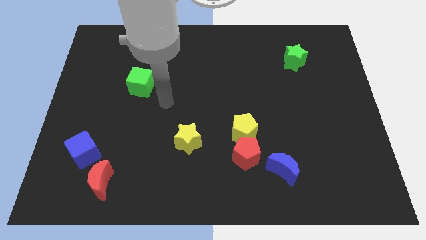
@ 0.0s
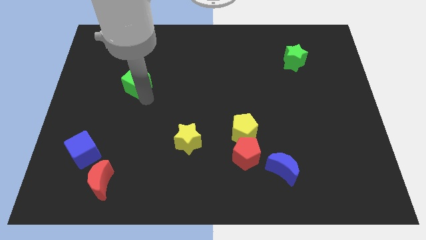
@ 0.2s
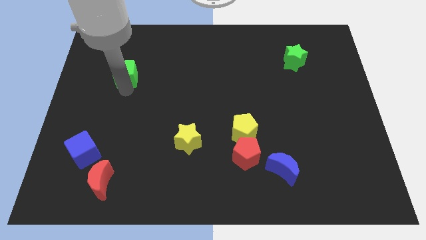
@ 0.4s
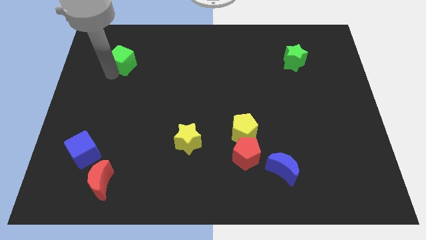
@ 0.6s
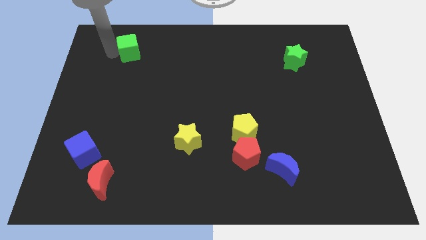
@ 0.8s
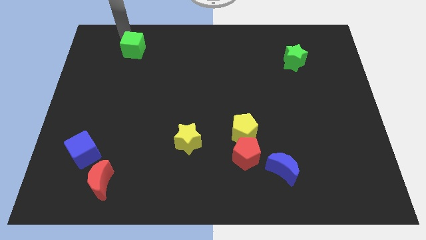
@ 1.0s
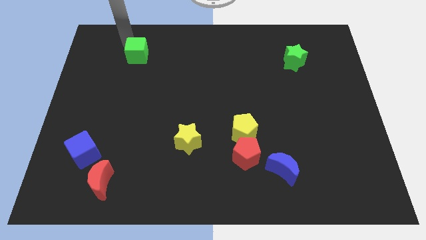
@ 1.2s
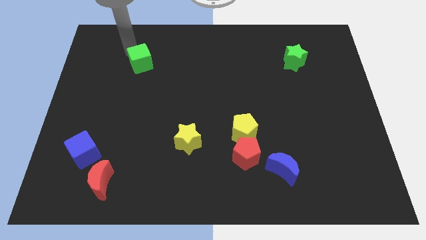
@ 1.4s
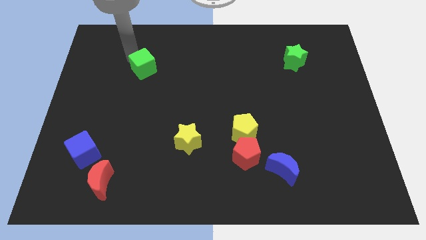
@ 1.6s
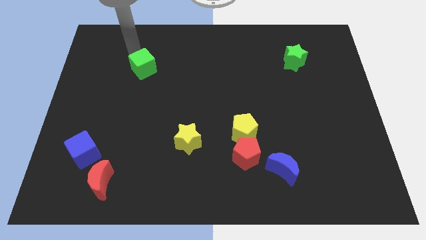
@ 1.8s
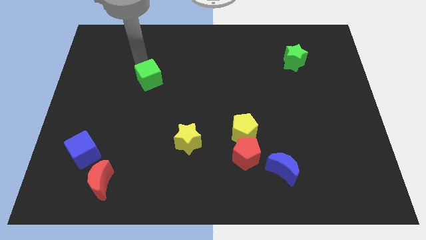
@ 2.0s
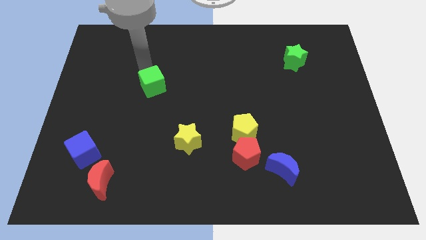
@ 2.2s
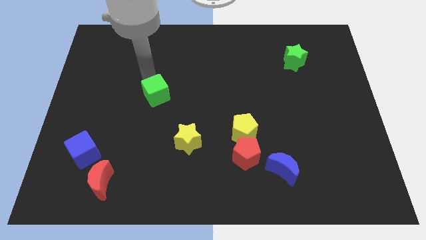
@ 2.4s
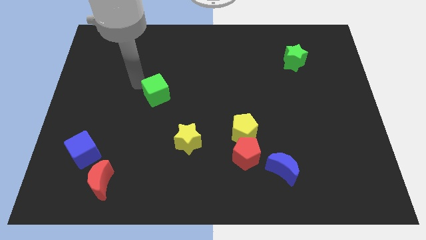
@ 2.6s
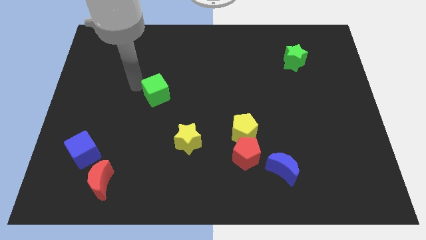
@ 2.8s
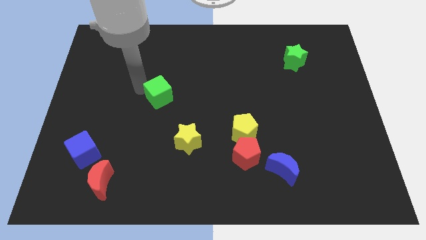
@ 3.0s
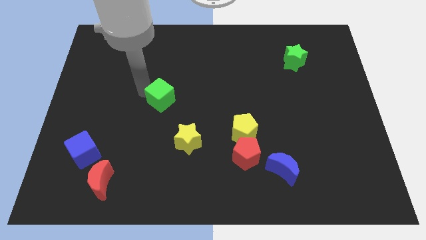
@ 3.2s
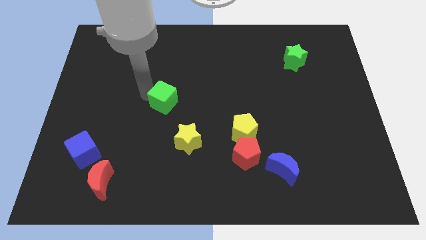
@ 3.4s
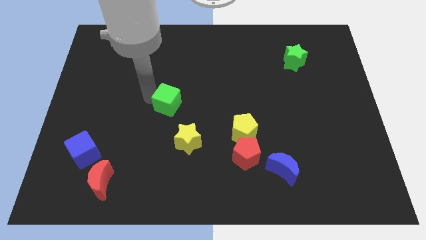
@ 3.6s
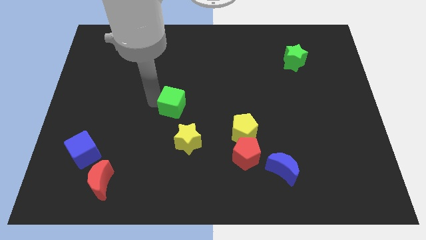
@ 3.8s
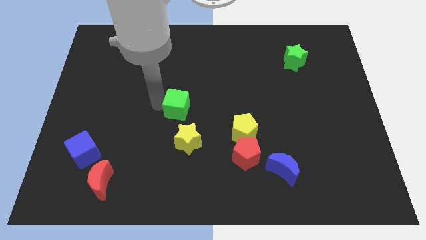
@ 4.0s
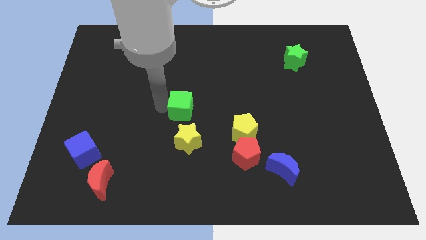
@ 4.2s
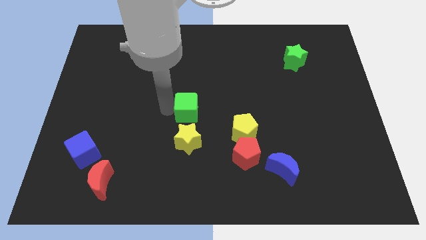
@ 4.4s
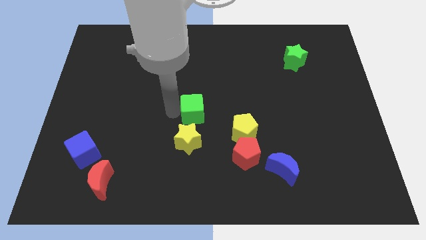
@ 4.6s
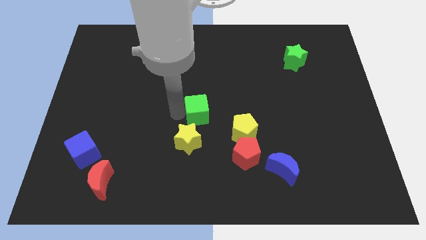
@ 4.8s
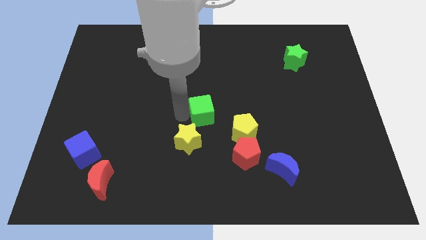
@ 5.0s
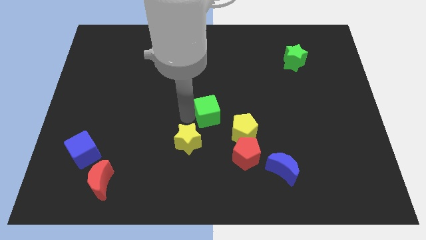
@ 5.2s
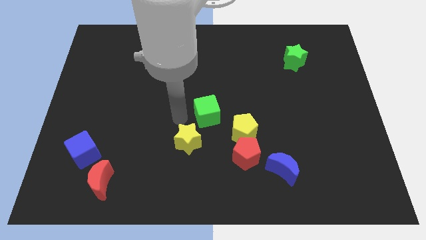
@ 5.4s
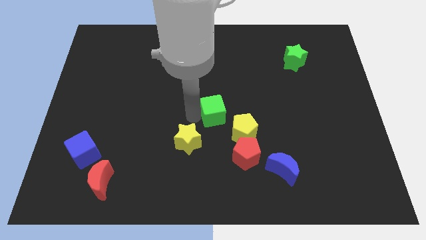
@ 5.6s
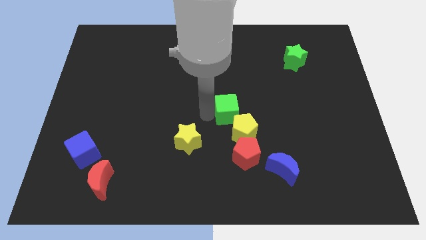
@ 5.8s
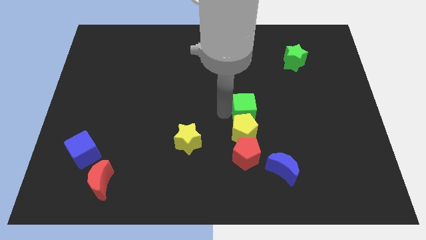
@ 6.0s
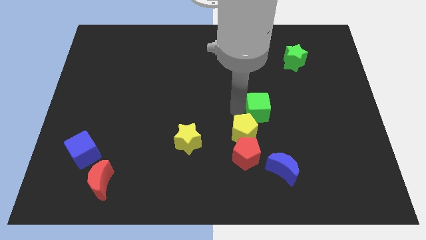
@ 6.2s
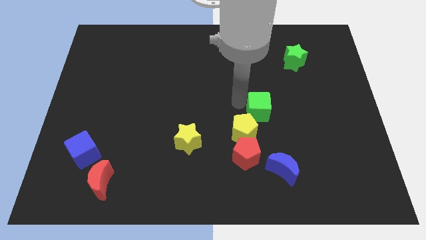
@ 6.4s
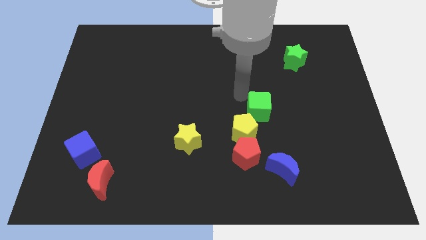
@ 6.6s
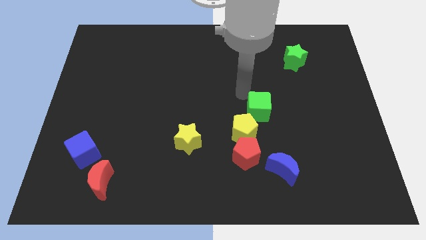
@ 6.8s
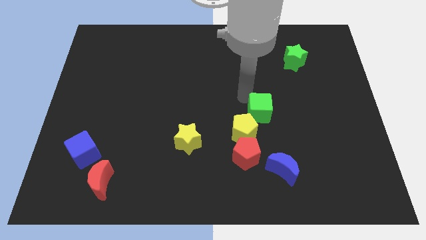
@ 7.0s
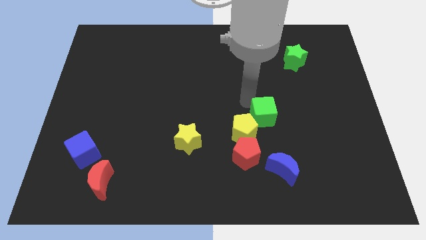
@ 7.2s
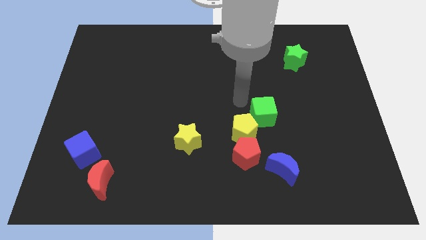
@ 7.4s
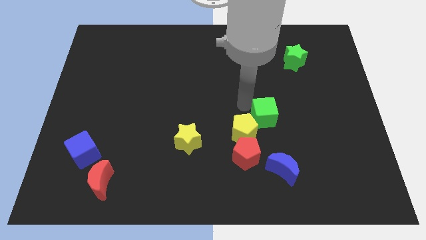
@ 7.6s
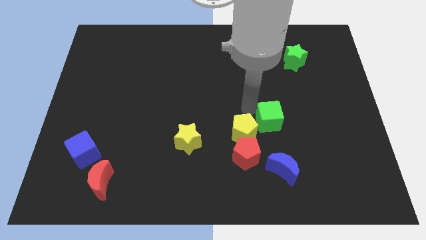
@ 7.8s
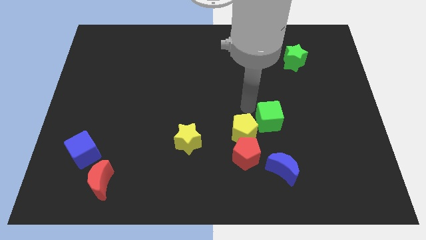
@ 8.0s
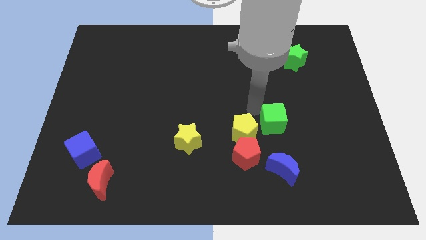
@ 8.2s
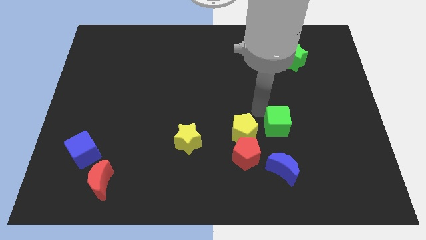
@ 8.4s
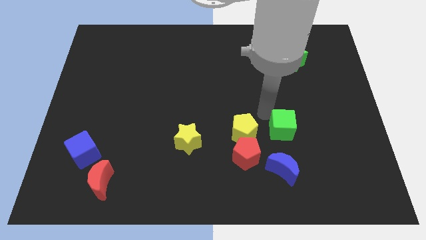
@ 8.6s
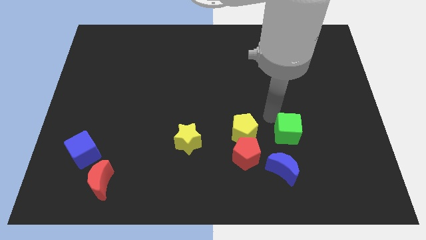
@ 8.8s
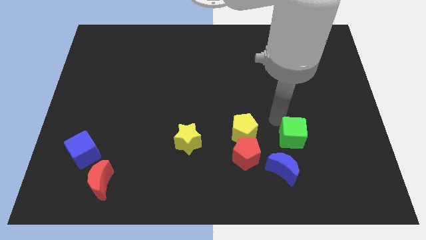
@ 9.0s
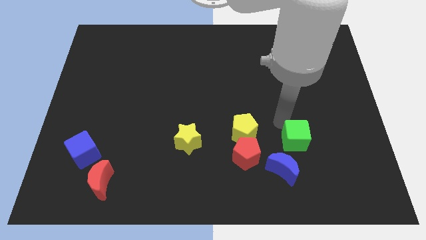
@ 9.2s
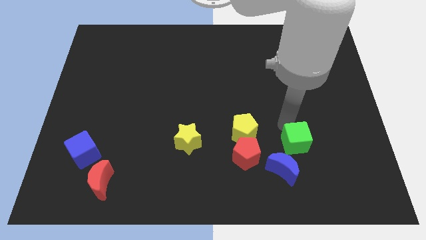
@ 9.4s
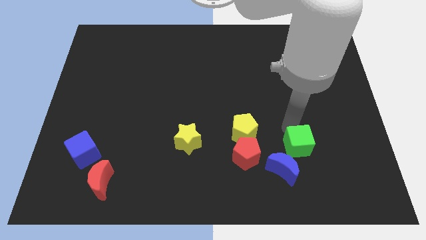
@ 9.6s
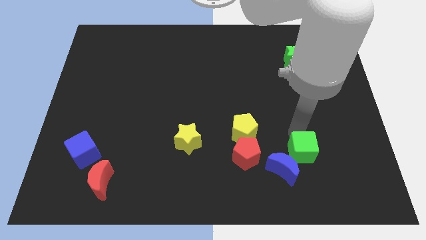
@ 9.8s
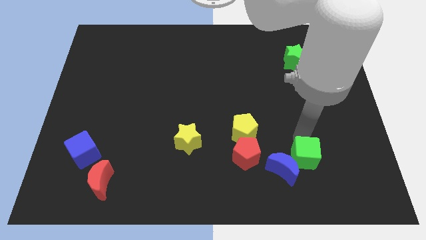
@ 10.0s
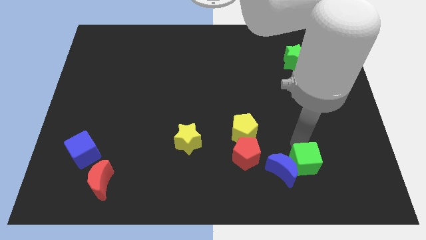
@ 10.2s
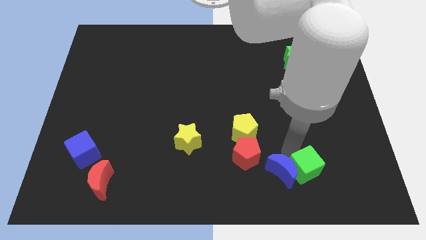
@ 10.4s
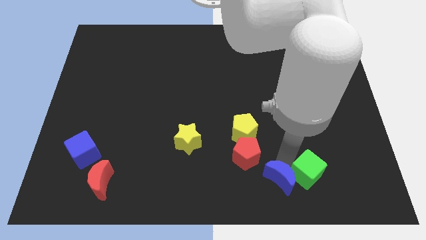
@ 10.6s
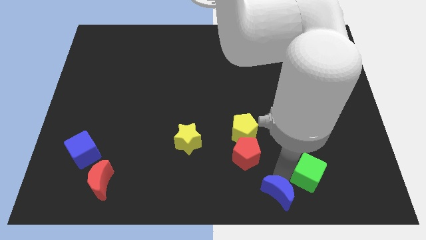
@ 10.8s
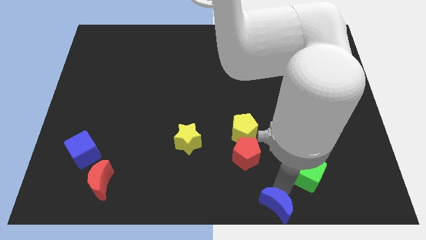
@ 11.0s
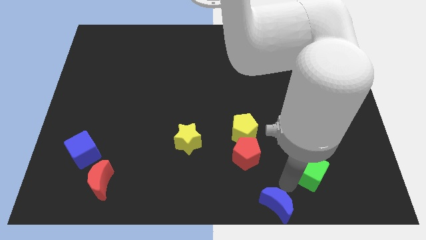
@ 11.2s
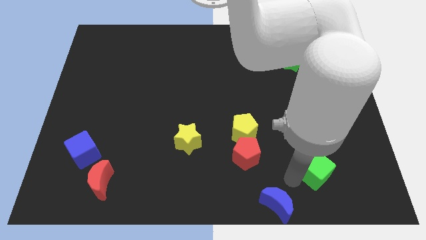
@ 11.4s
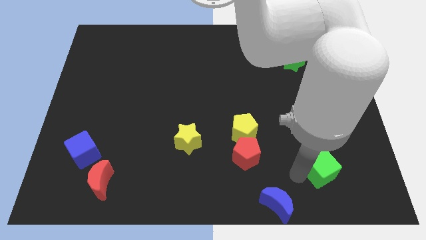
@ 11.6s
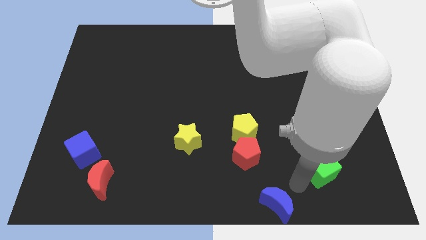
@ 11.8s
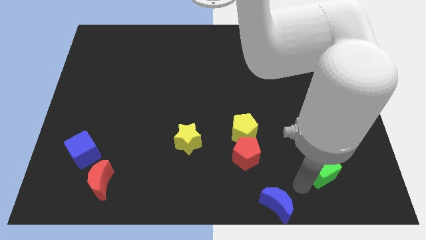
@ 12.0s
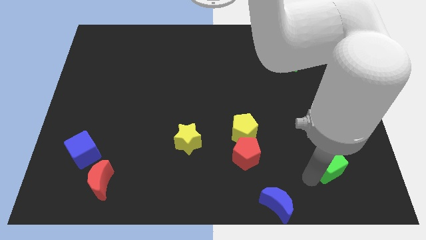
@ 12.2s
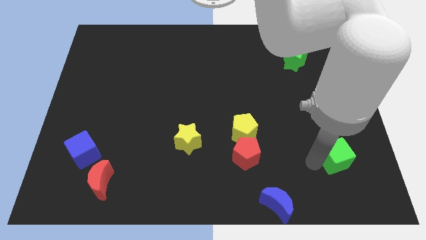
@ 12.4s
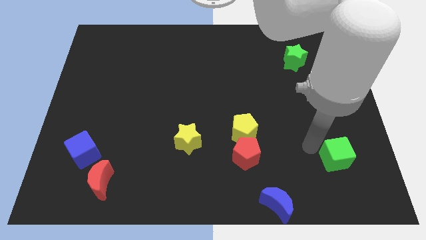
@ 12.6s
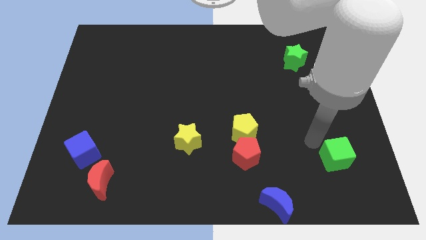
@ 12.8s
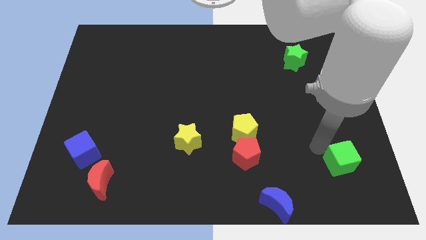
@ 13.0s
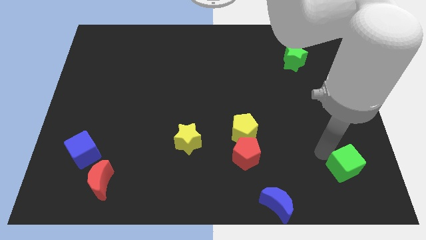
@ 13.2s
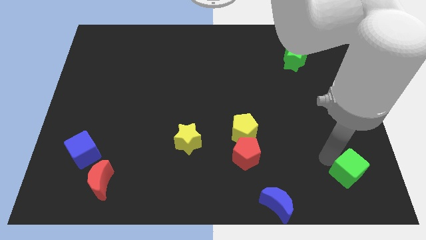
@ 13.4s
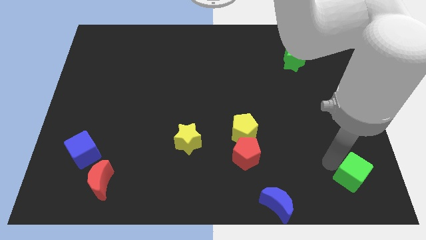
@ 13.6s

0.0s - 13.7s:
slide the green cube to the bottom right corner
